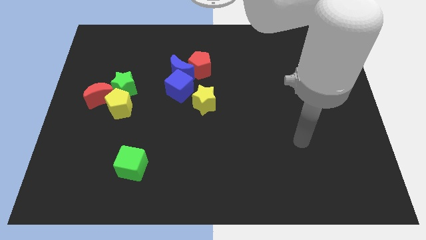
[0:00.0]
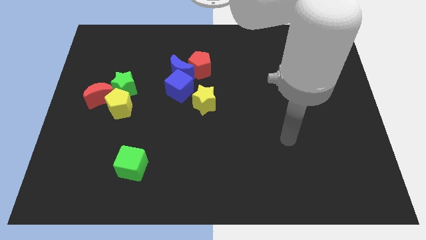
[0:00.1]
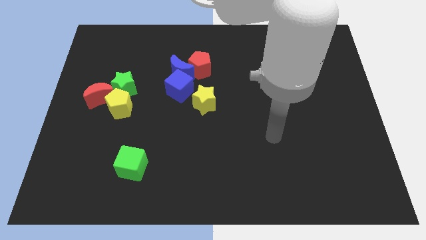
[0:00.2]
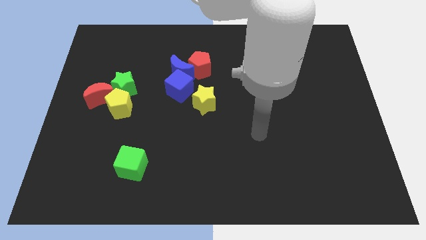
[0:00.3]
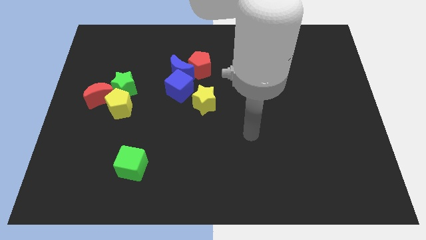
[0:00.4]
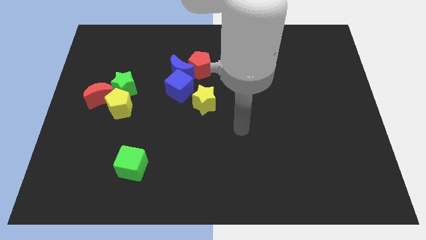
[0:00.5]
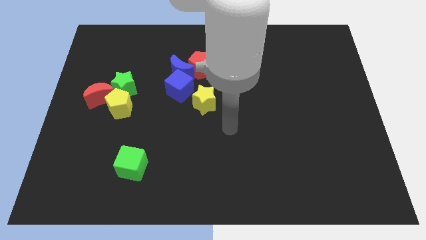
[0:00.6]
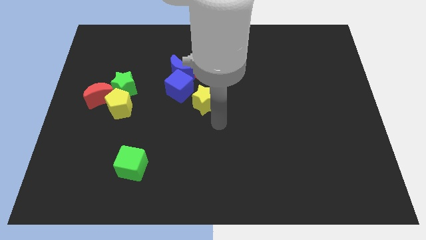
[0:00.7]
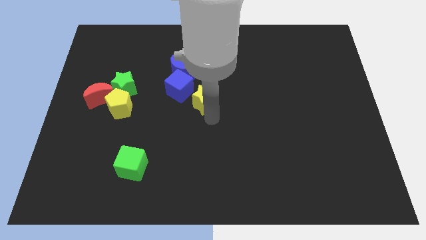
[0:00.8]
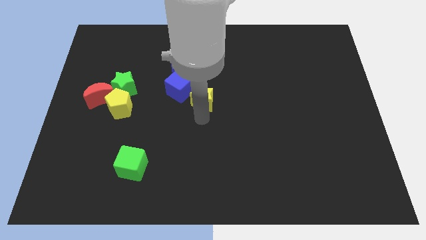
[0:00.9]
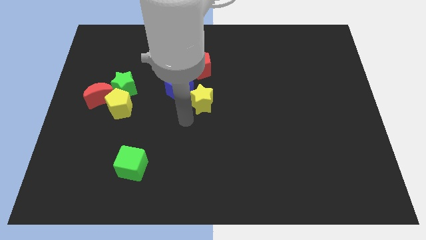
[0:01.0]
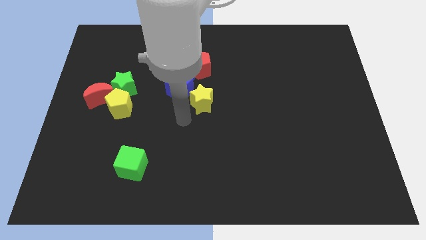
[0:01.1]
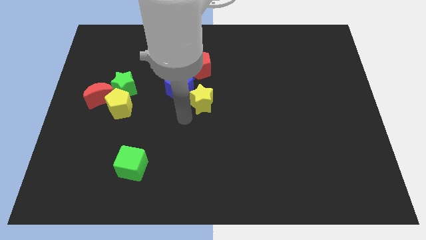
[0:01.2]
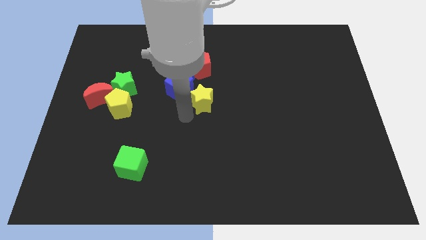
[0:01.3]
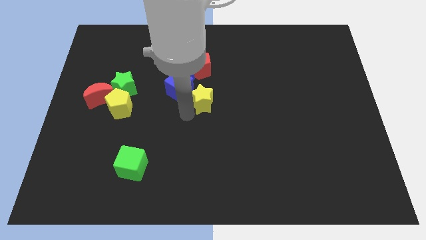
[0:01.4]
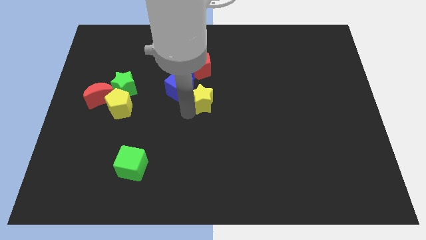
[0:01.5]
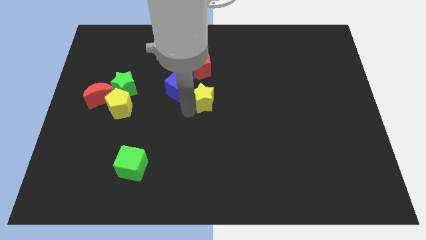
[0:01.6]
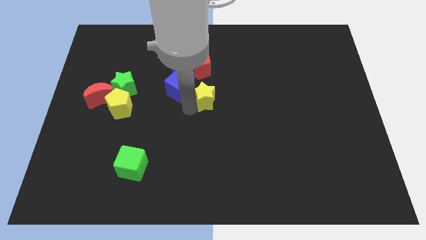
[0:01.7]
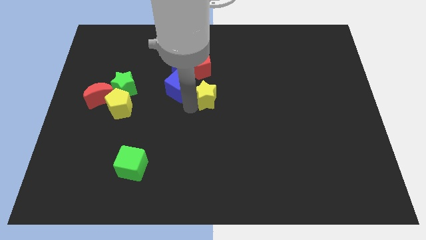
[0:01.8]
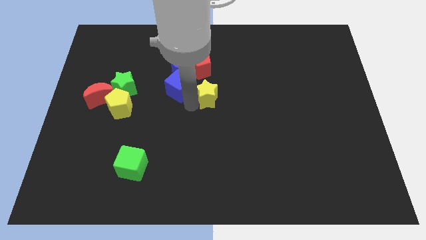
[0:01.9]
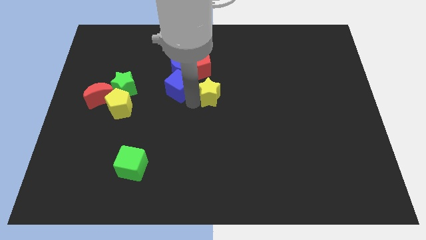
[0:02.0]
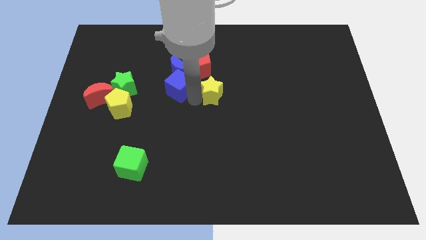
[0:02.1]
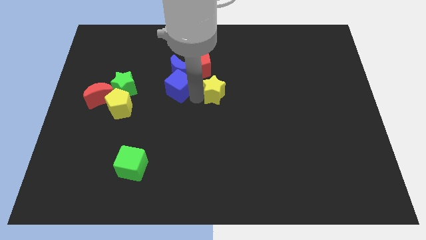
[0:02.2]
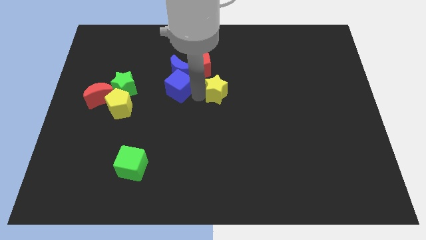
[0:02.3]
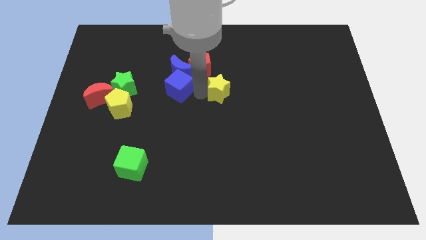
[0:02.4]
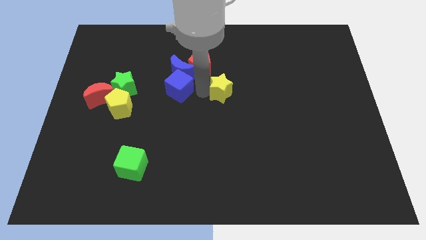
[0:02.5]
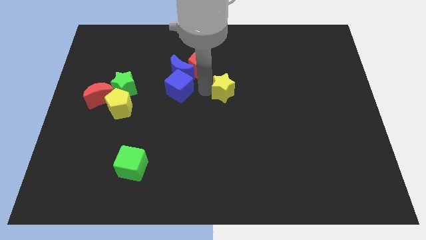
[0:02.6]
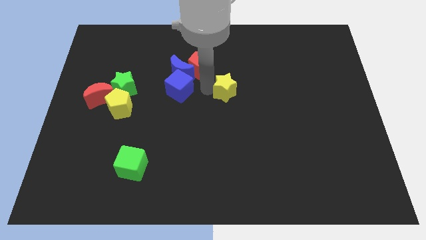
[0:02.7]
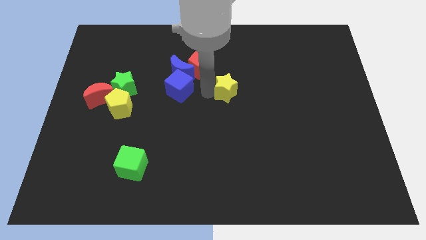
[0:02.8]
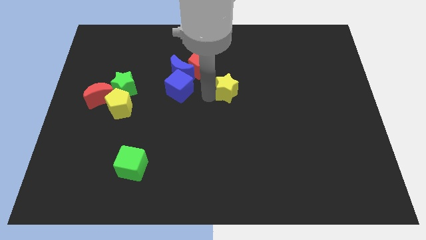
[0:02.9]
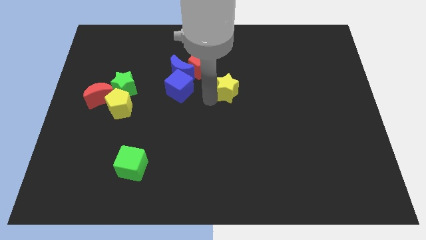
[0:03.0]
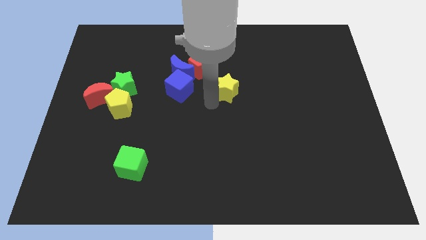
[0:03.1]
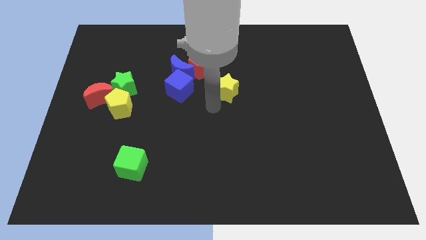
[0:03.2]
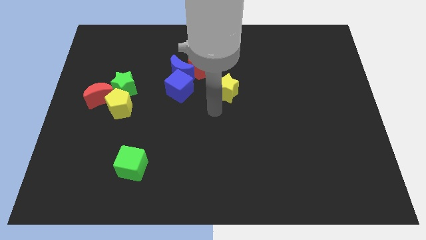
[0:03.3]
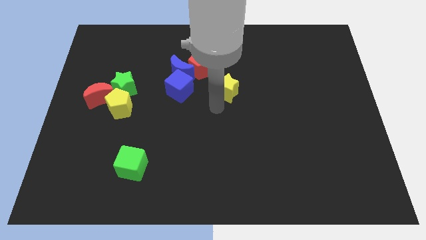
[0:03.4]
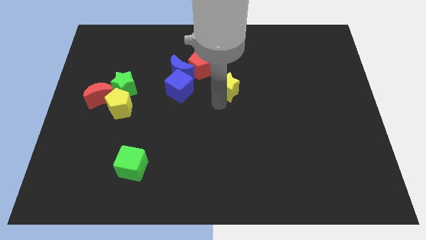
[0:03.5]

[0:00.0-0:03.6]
slide the yellow star slightly up and right

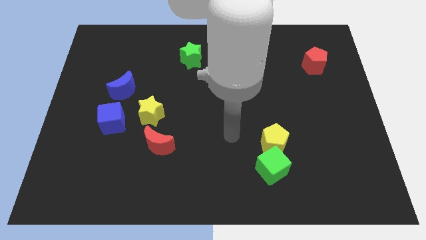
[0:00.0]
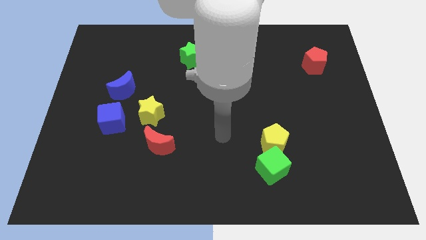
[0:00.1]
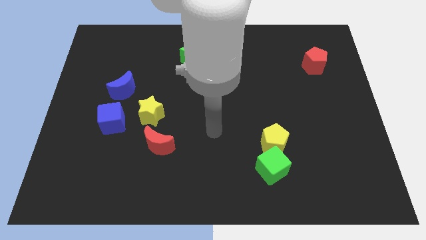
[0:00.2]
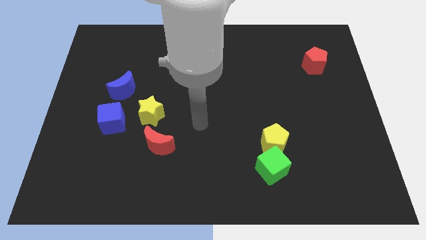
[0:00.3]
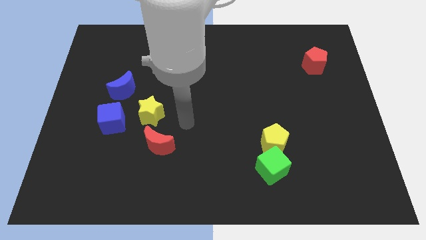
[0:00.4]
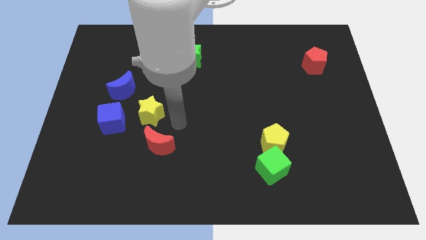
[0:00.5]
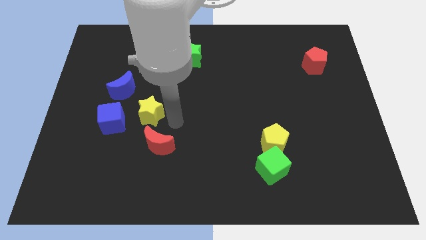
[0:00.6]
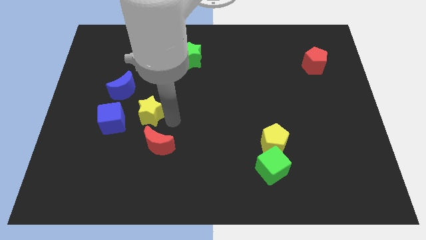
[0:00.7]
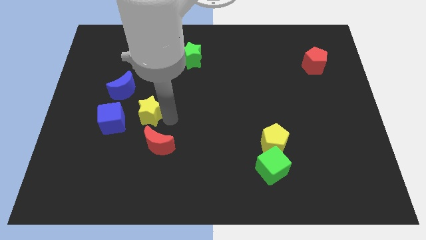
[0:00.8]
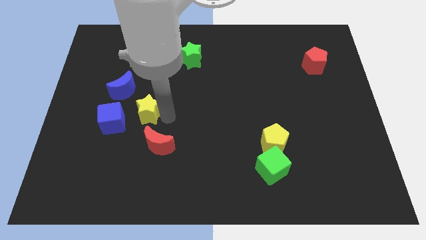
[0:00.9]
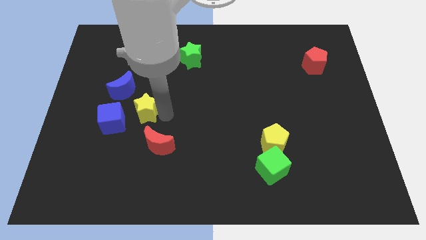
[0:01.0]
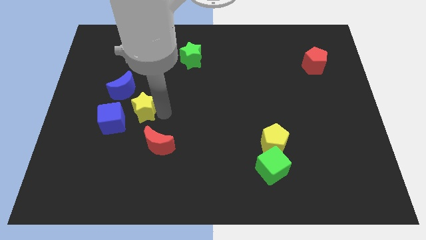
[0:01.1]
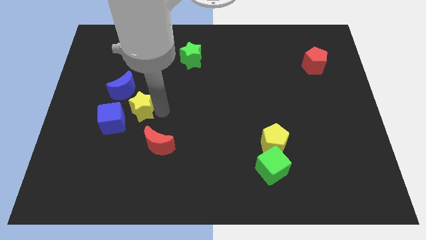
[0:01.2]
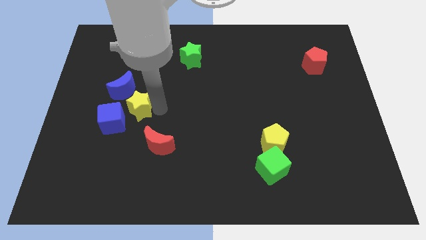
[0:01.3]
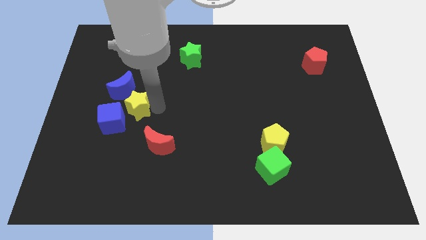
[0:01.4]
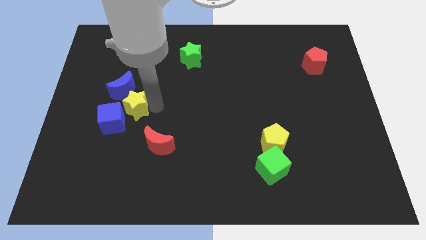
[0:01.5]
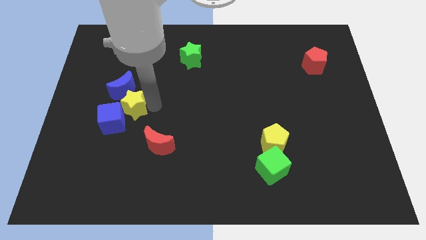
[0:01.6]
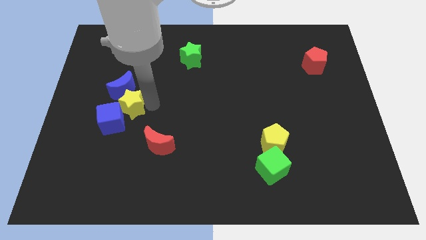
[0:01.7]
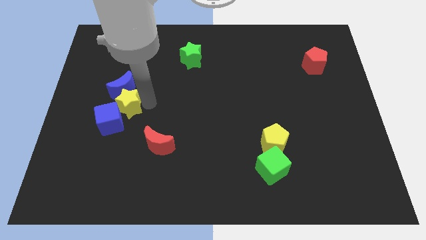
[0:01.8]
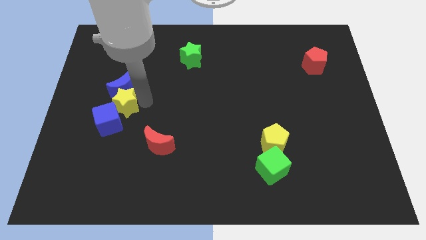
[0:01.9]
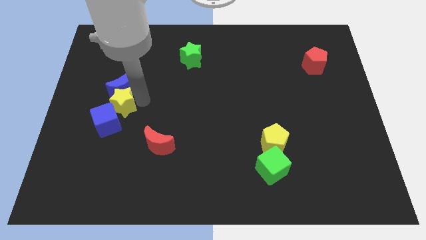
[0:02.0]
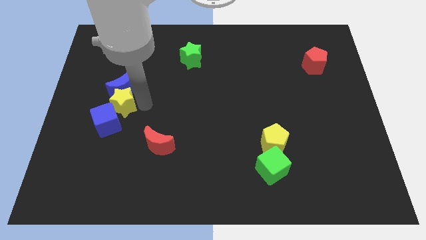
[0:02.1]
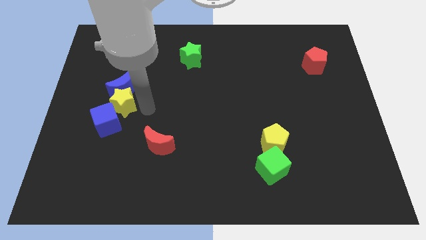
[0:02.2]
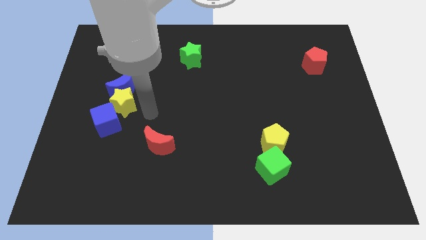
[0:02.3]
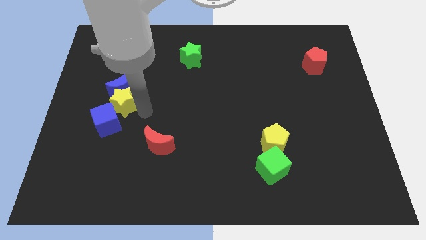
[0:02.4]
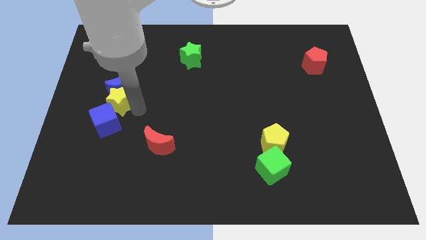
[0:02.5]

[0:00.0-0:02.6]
slide the yellow star upwards and then to the left a bit

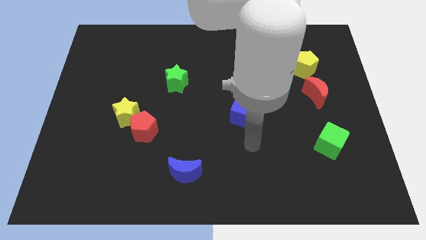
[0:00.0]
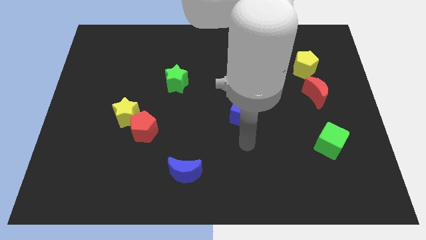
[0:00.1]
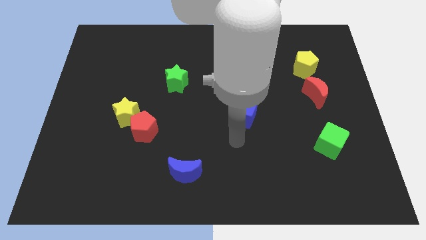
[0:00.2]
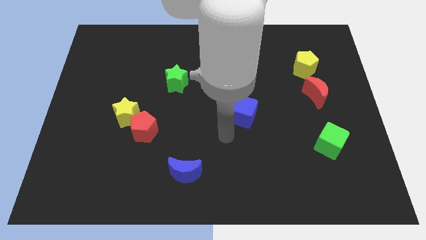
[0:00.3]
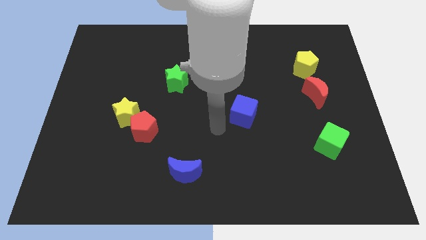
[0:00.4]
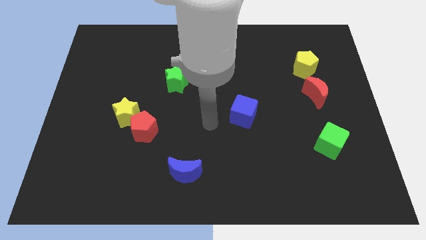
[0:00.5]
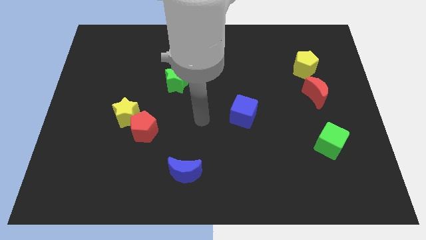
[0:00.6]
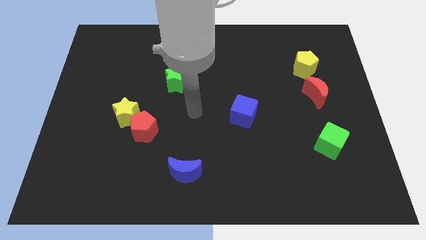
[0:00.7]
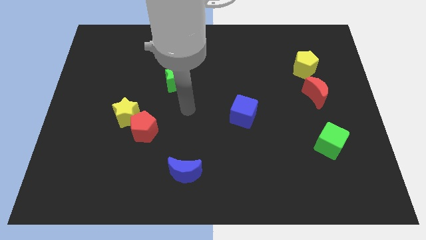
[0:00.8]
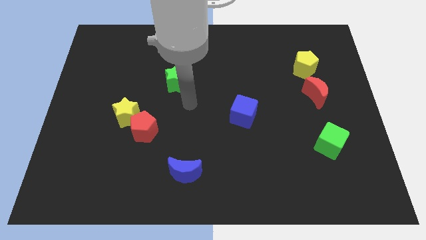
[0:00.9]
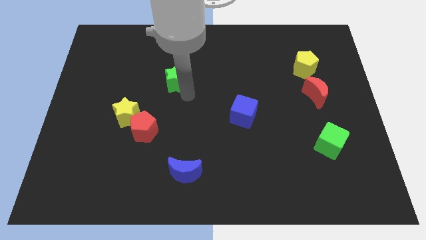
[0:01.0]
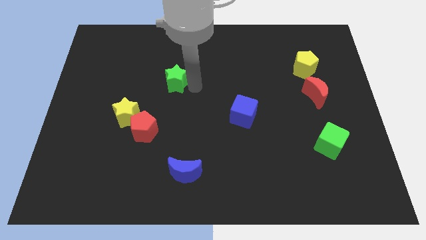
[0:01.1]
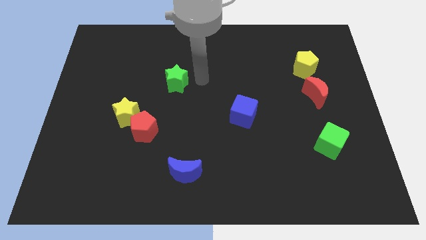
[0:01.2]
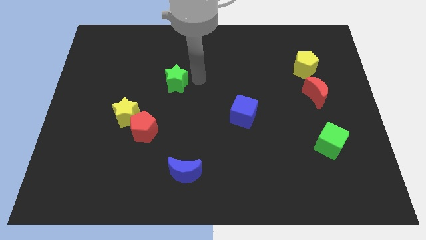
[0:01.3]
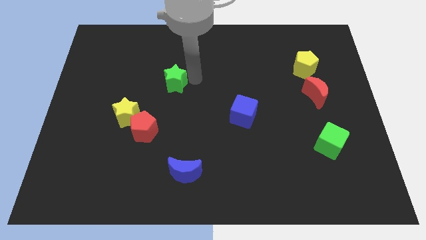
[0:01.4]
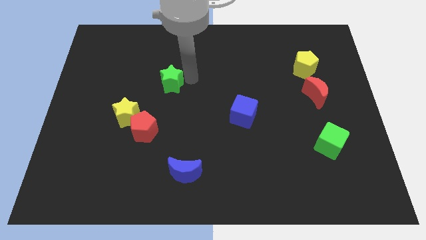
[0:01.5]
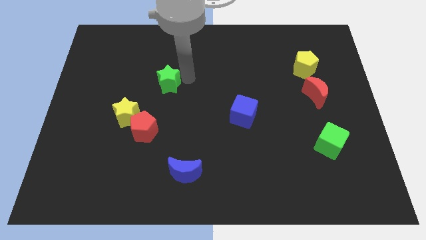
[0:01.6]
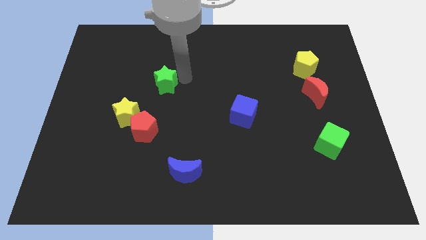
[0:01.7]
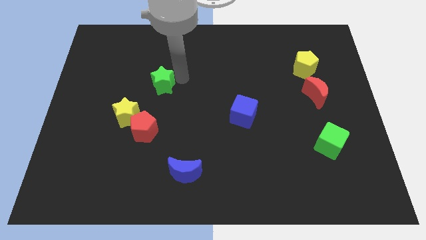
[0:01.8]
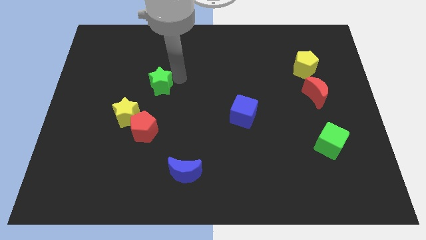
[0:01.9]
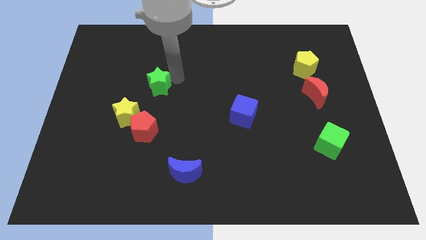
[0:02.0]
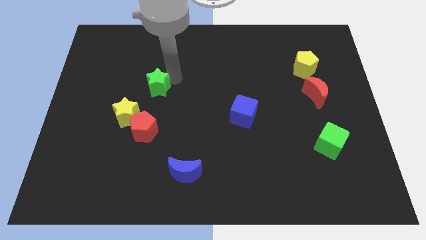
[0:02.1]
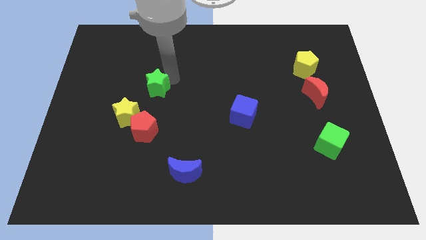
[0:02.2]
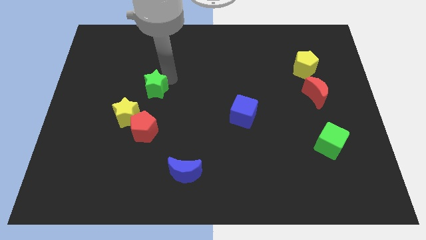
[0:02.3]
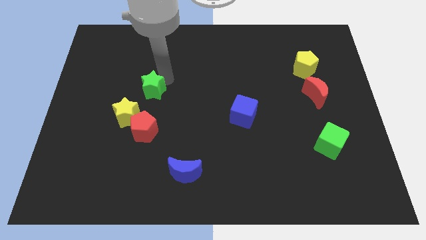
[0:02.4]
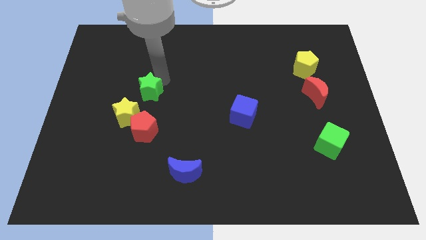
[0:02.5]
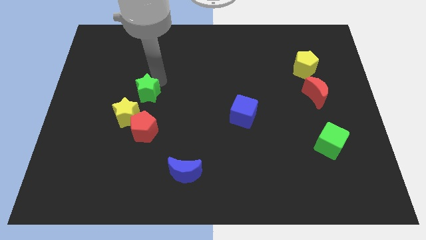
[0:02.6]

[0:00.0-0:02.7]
slide the green star downwards and left diagonally slightly
